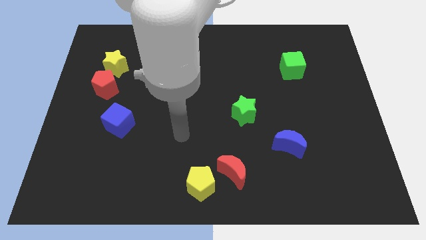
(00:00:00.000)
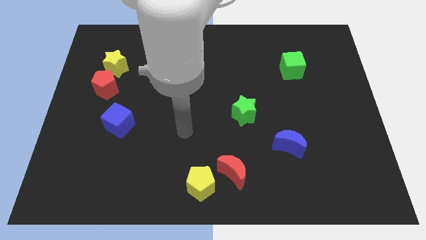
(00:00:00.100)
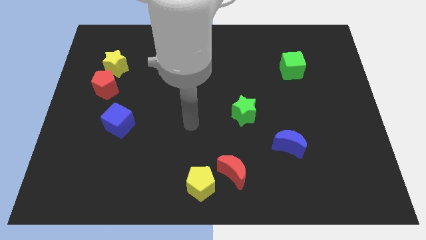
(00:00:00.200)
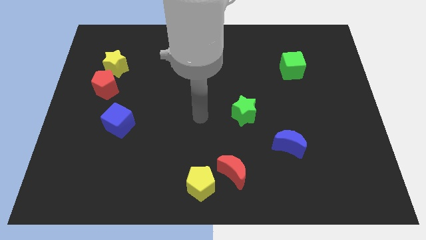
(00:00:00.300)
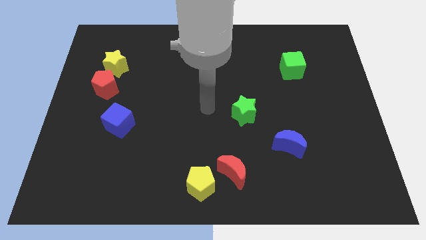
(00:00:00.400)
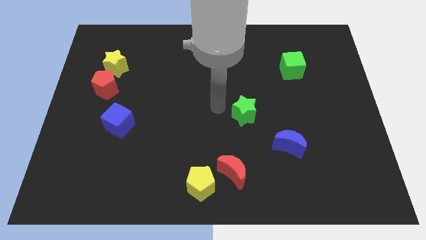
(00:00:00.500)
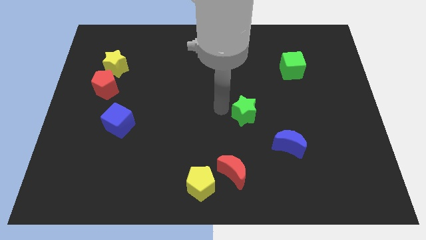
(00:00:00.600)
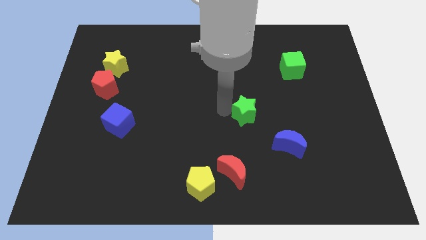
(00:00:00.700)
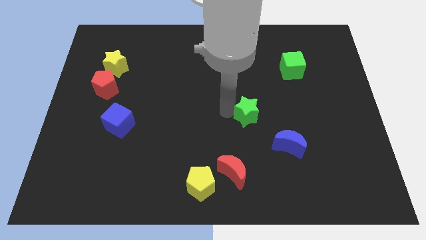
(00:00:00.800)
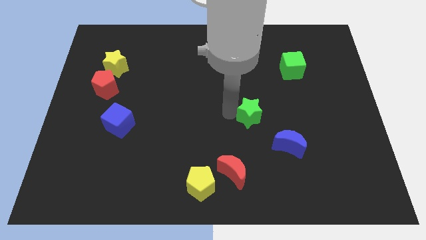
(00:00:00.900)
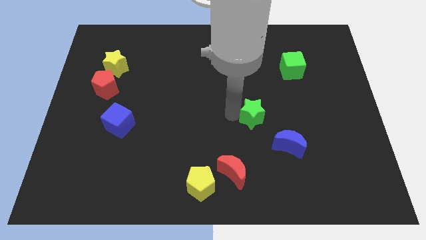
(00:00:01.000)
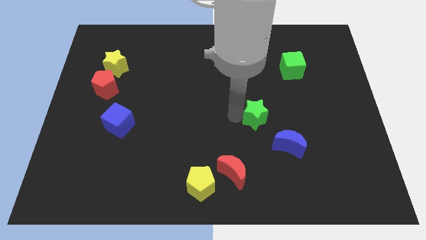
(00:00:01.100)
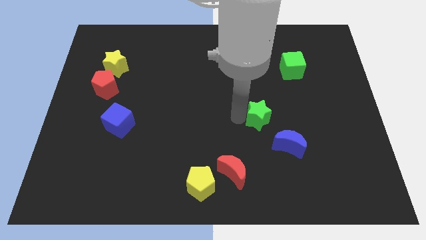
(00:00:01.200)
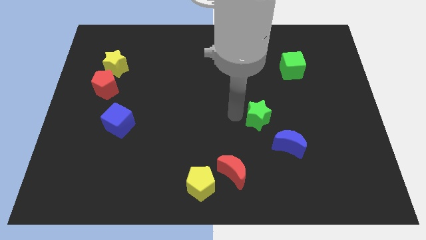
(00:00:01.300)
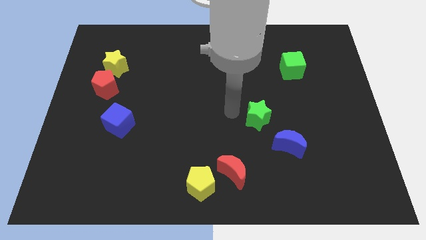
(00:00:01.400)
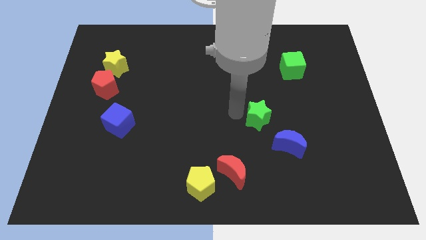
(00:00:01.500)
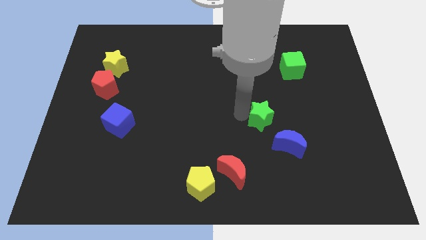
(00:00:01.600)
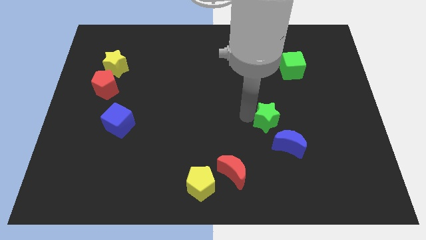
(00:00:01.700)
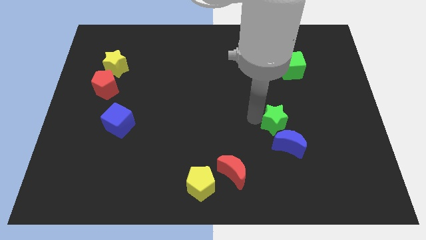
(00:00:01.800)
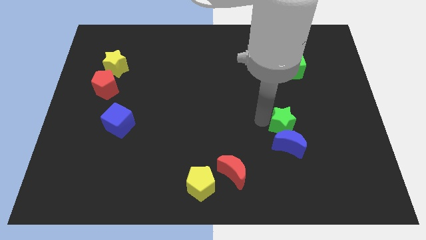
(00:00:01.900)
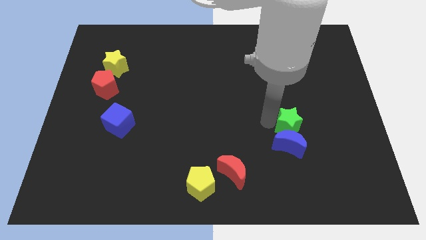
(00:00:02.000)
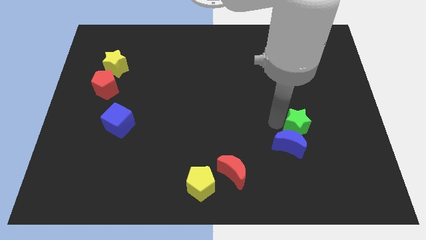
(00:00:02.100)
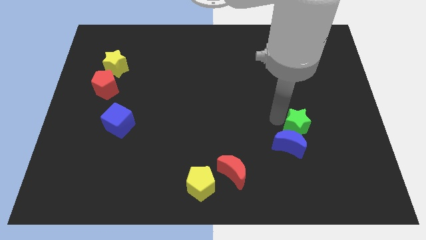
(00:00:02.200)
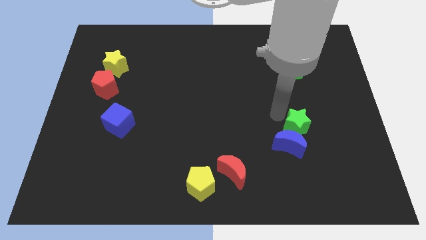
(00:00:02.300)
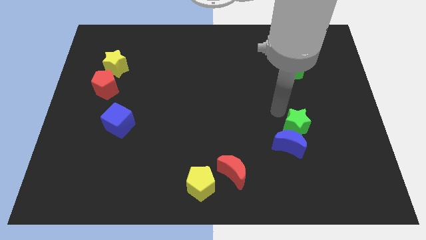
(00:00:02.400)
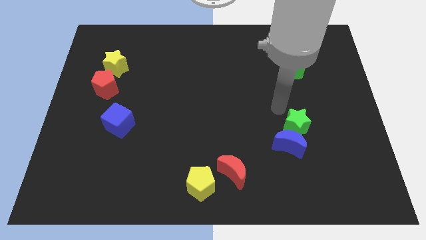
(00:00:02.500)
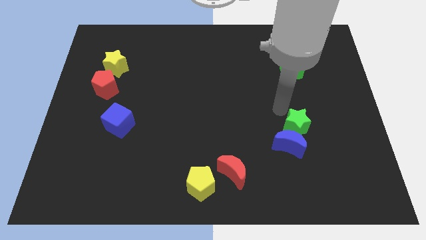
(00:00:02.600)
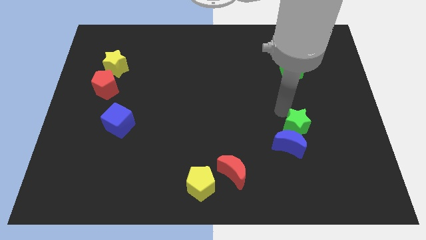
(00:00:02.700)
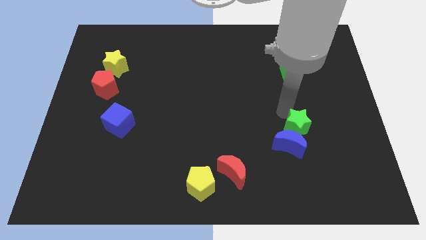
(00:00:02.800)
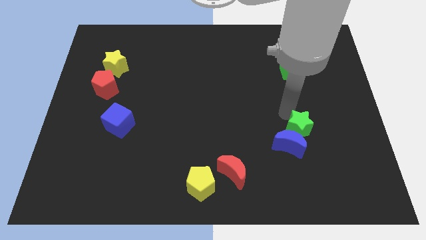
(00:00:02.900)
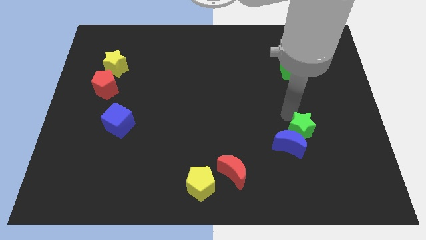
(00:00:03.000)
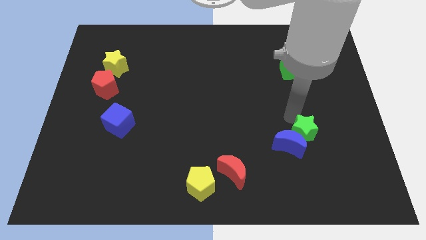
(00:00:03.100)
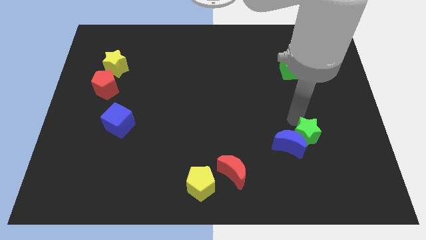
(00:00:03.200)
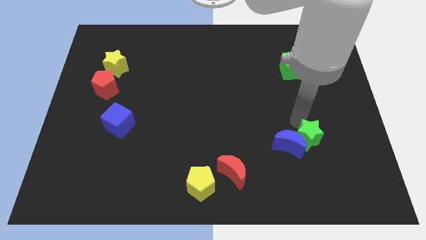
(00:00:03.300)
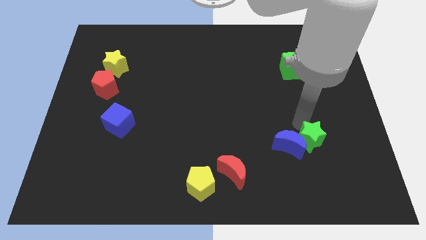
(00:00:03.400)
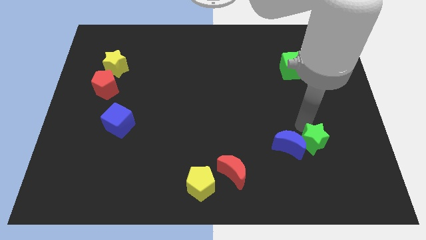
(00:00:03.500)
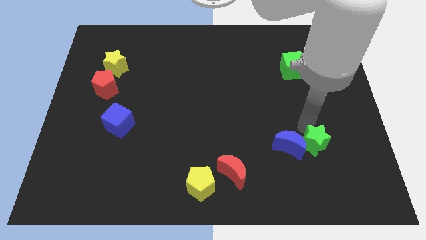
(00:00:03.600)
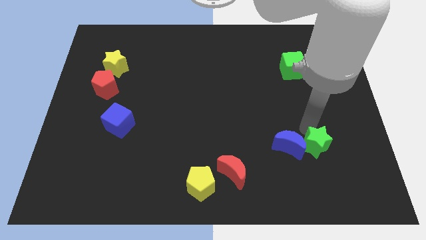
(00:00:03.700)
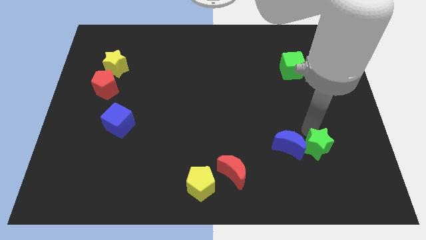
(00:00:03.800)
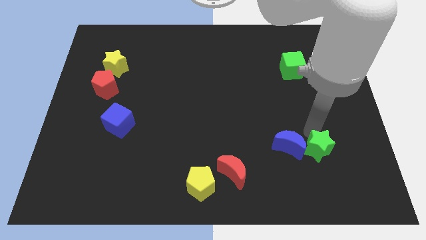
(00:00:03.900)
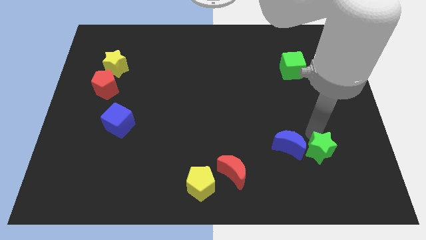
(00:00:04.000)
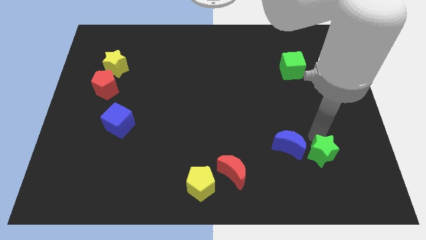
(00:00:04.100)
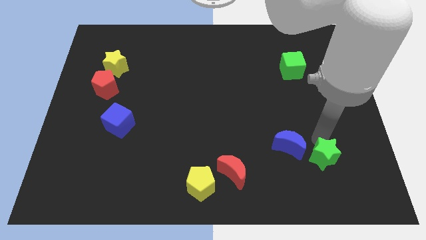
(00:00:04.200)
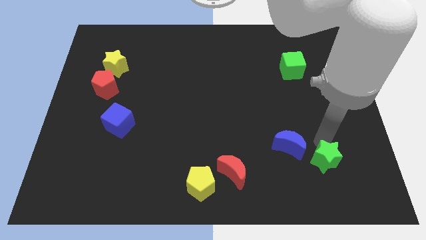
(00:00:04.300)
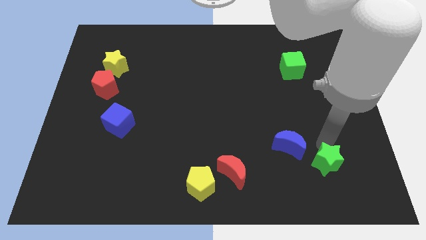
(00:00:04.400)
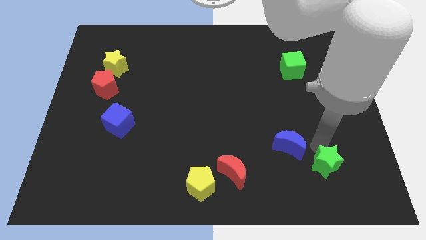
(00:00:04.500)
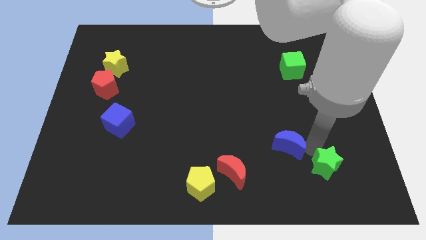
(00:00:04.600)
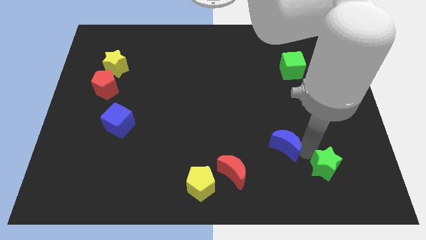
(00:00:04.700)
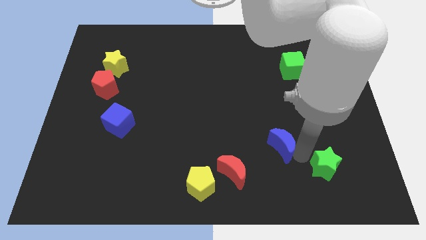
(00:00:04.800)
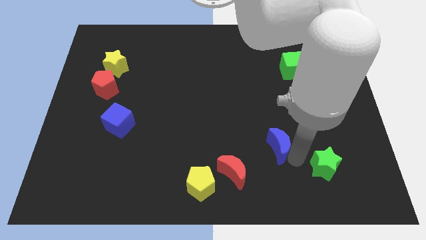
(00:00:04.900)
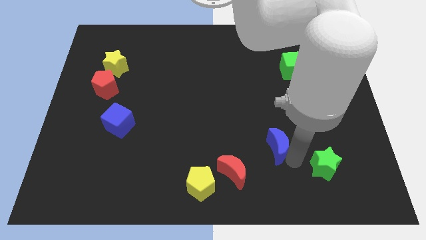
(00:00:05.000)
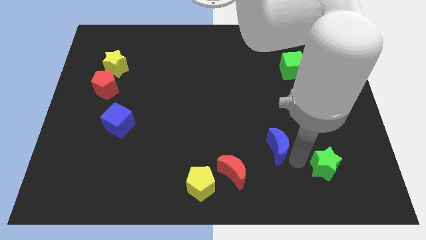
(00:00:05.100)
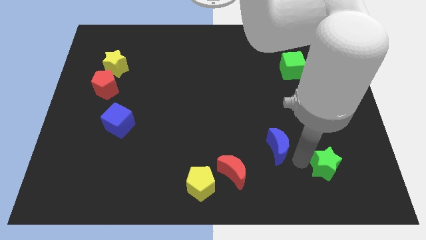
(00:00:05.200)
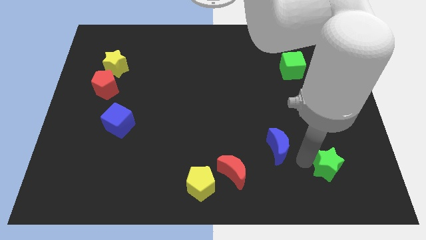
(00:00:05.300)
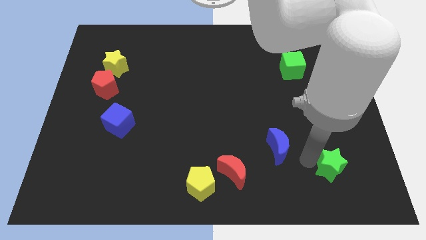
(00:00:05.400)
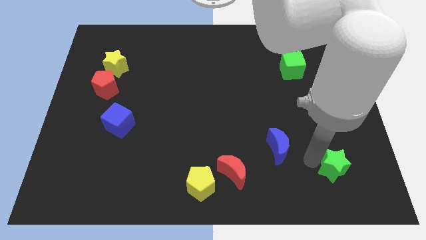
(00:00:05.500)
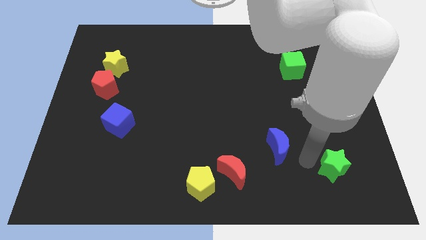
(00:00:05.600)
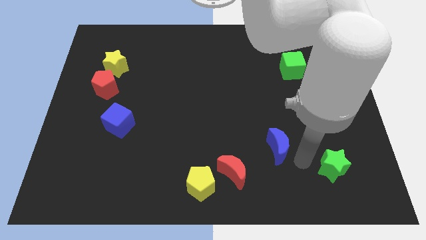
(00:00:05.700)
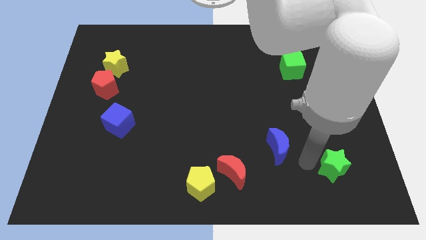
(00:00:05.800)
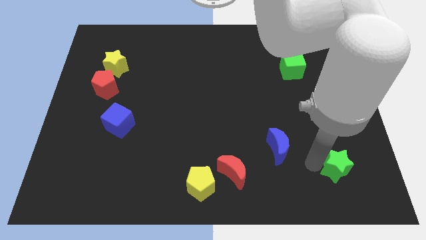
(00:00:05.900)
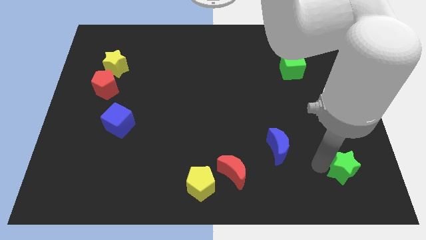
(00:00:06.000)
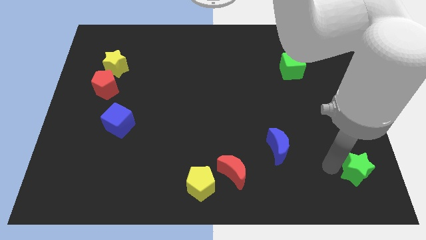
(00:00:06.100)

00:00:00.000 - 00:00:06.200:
move the green star to the bottom right

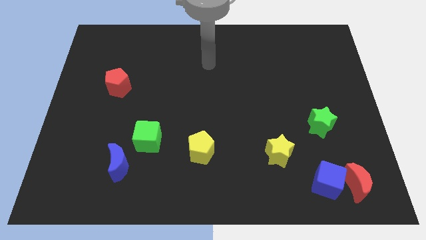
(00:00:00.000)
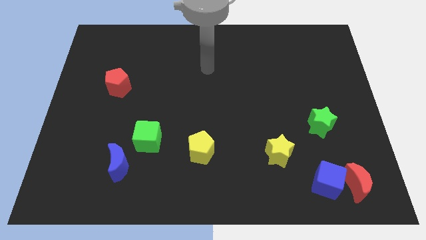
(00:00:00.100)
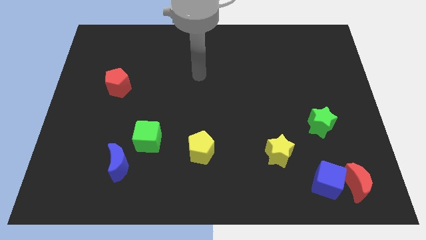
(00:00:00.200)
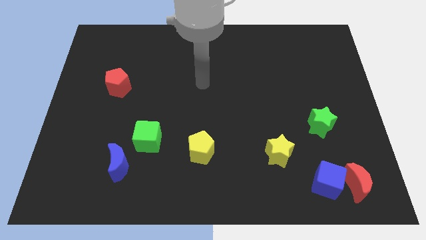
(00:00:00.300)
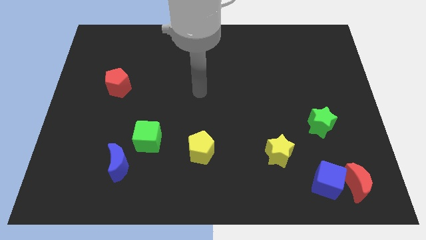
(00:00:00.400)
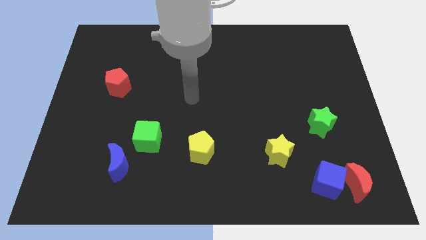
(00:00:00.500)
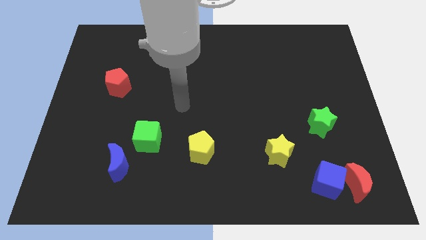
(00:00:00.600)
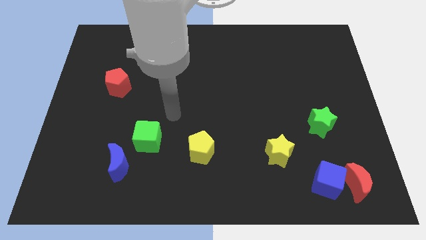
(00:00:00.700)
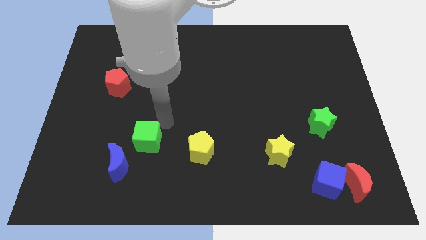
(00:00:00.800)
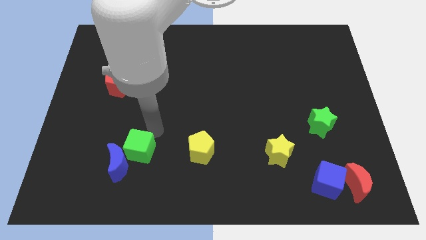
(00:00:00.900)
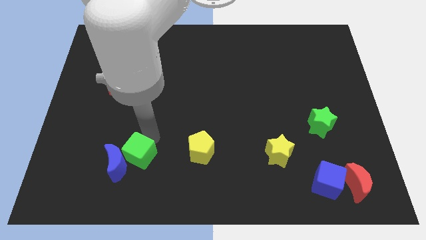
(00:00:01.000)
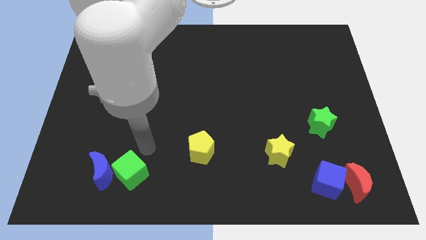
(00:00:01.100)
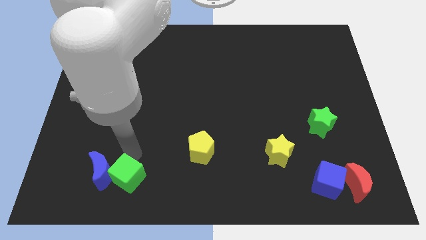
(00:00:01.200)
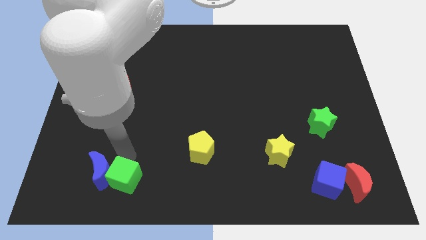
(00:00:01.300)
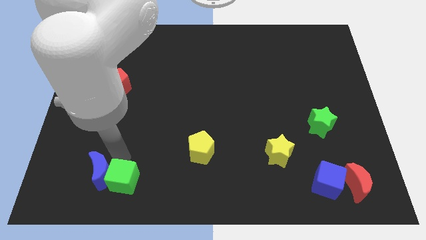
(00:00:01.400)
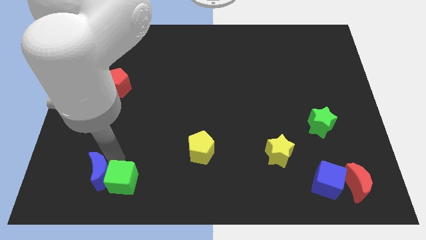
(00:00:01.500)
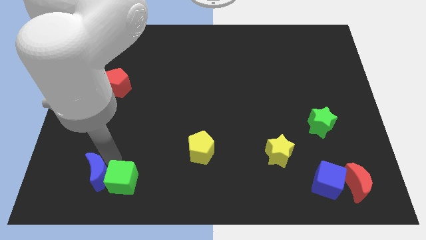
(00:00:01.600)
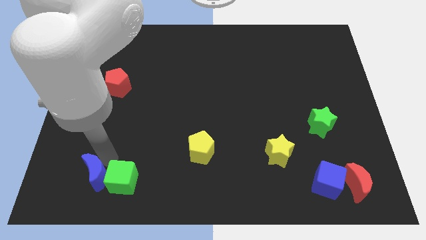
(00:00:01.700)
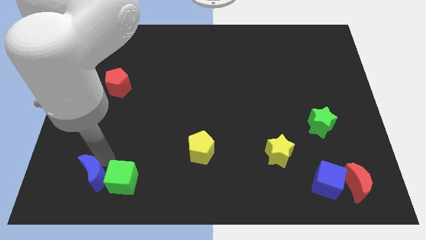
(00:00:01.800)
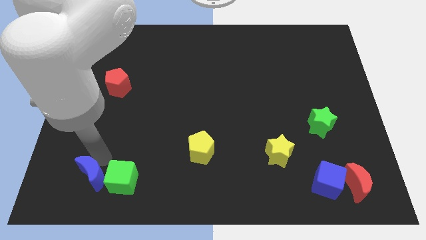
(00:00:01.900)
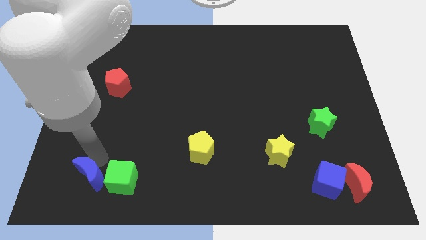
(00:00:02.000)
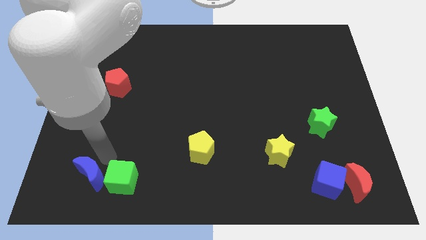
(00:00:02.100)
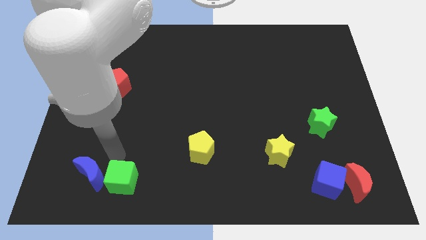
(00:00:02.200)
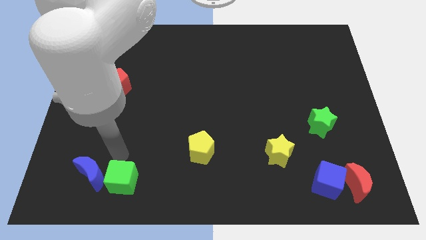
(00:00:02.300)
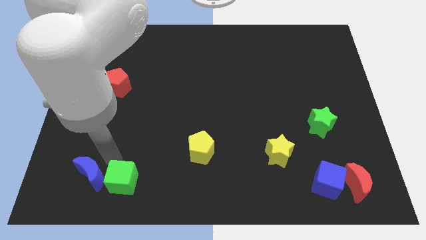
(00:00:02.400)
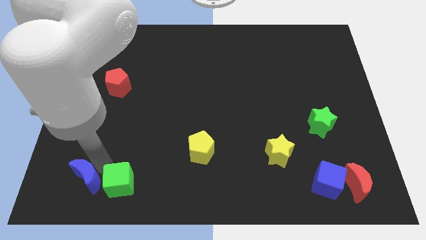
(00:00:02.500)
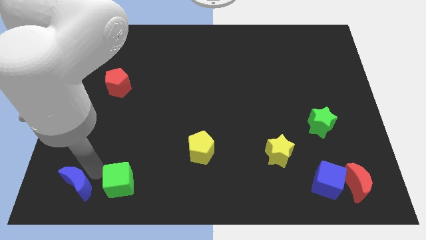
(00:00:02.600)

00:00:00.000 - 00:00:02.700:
push the blue moon to the bottom left of the board
